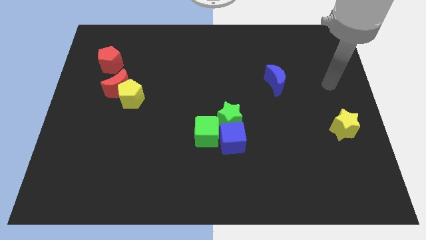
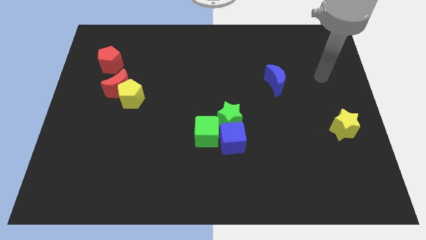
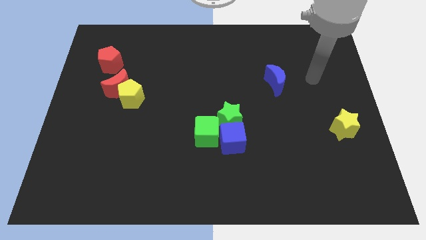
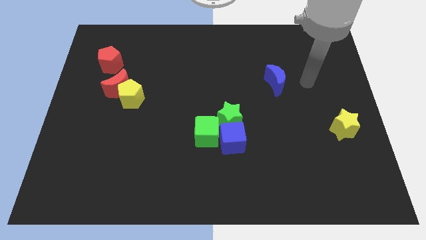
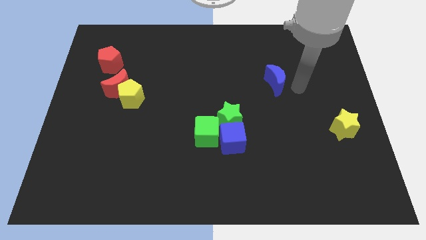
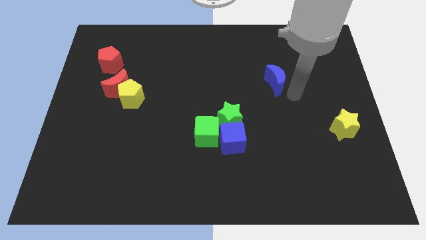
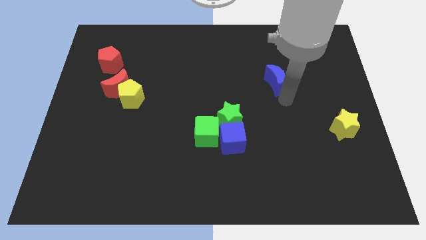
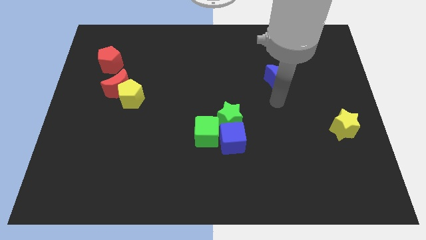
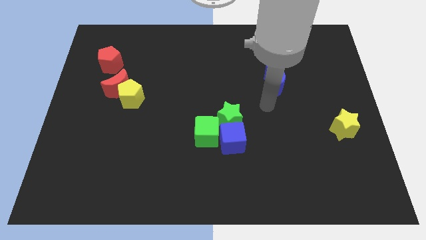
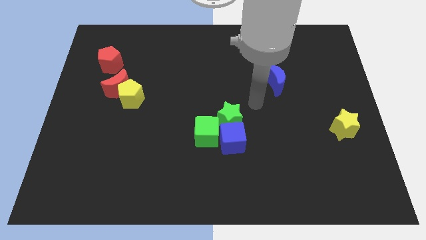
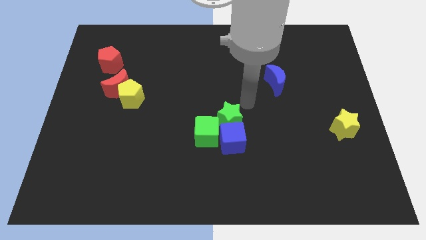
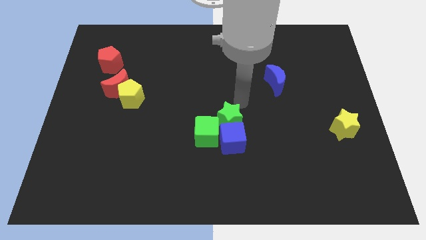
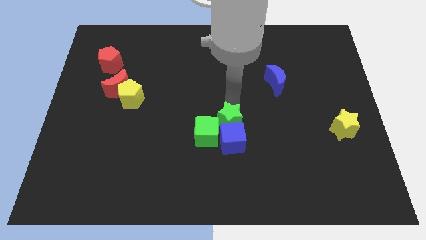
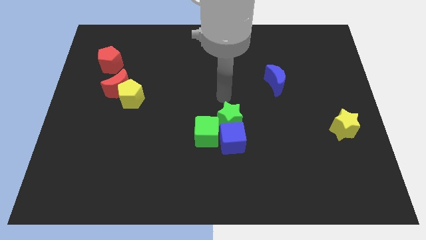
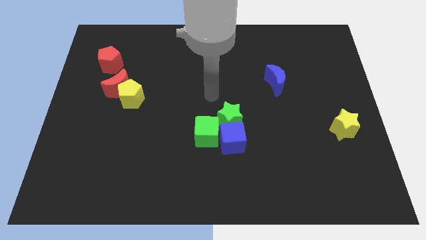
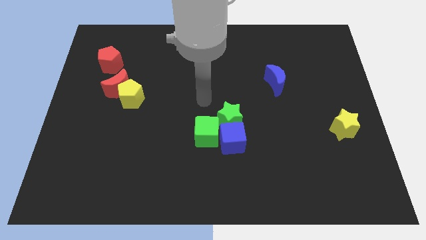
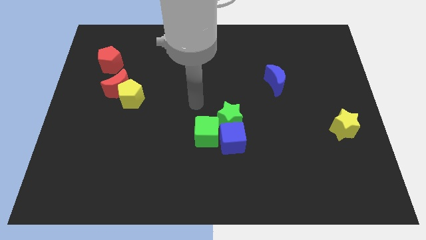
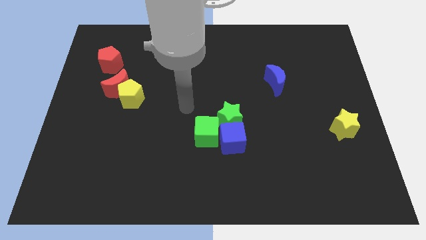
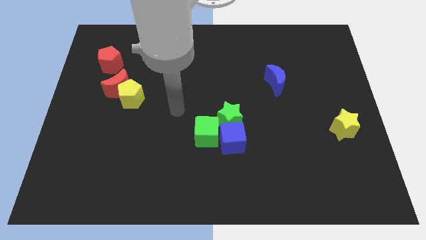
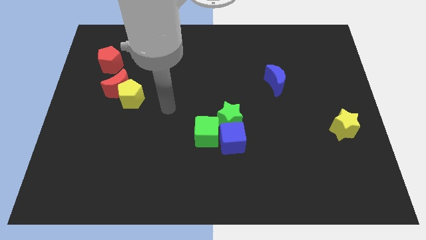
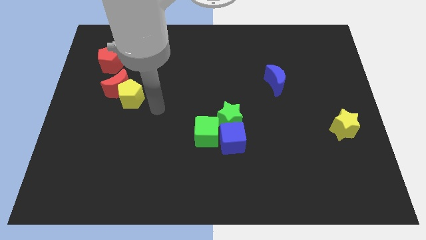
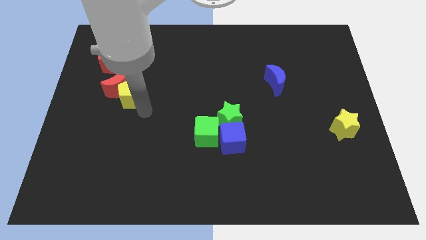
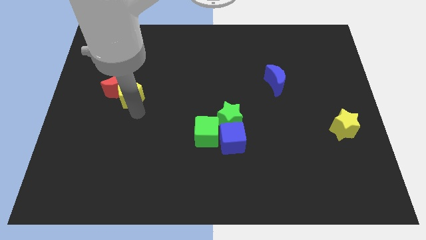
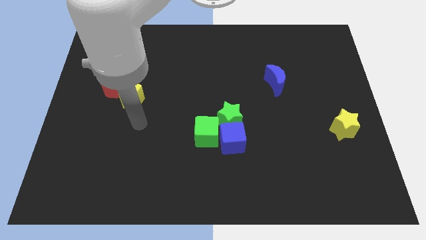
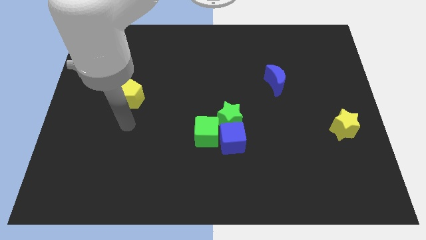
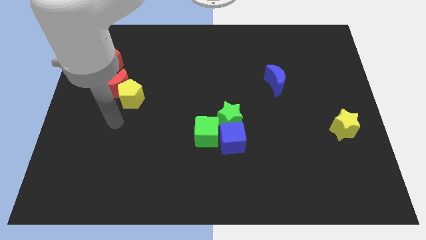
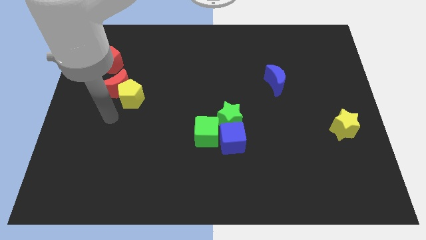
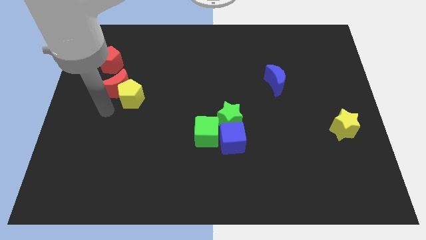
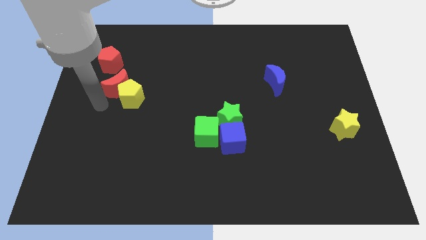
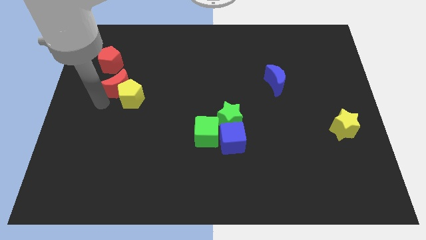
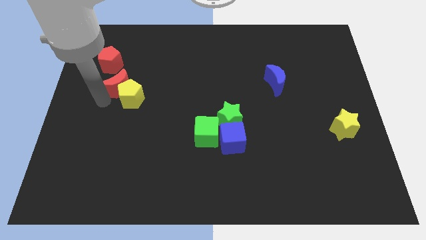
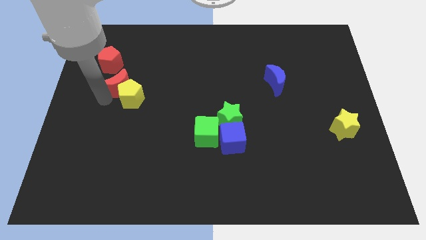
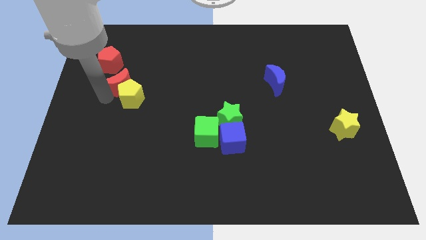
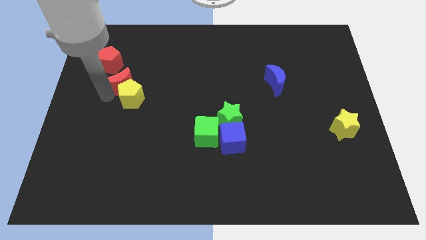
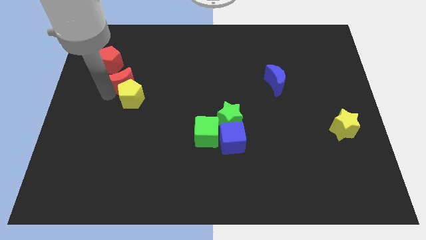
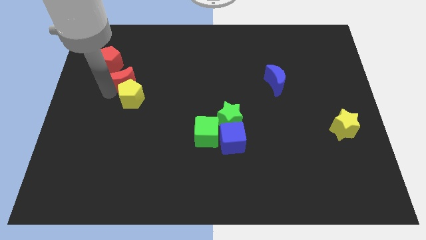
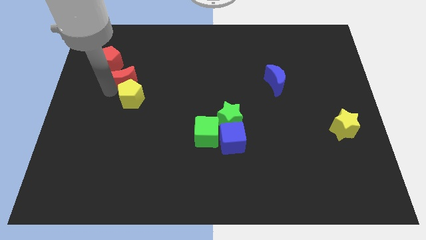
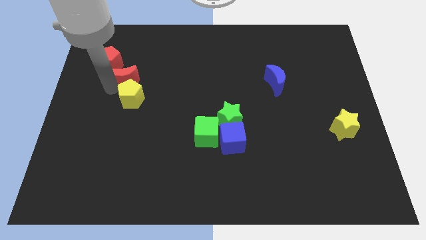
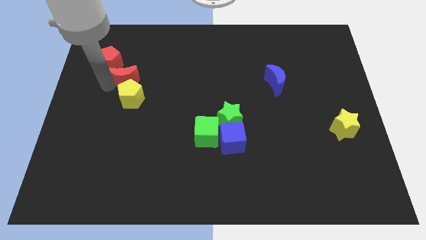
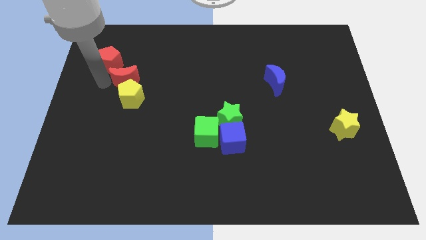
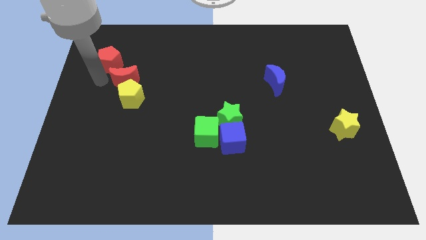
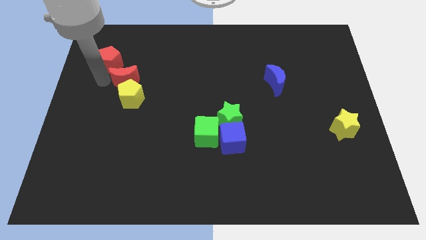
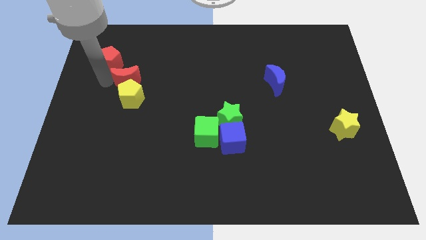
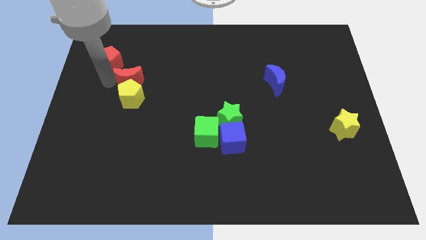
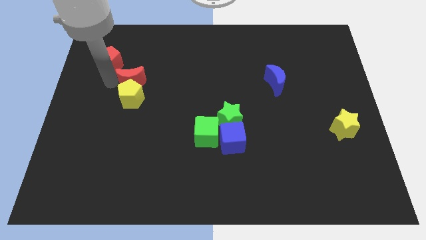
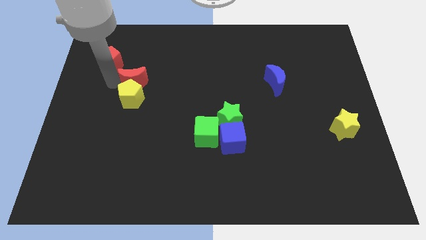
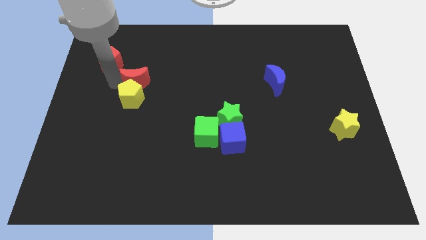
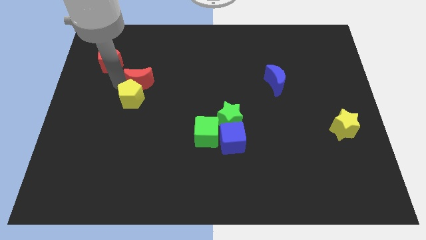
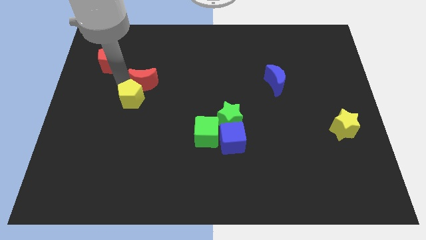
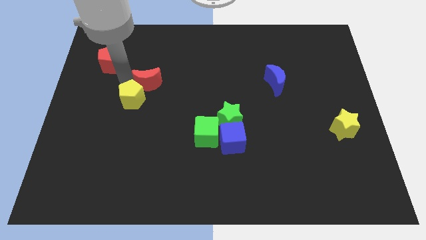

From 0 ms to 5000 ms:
push the red moon right somewhat

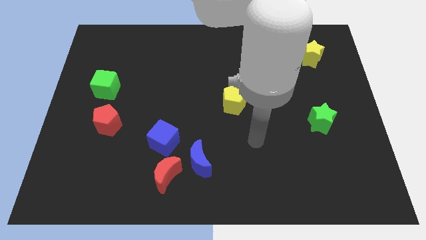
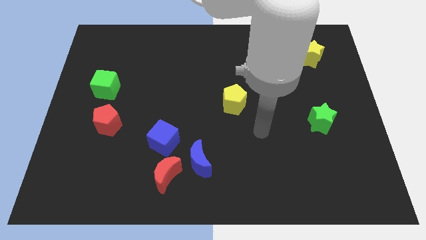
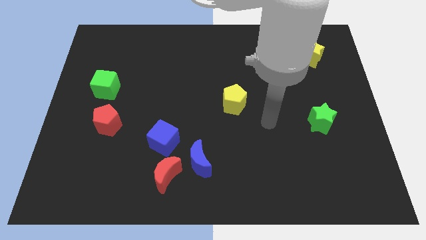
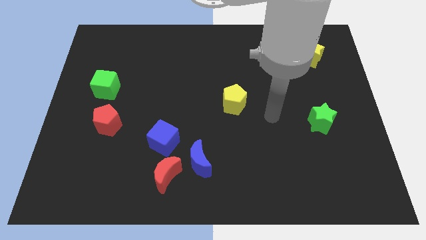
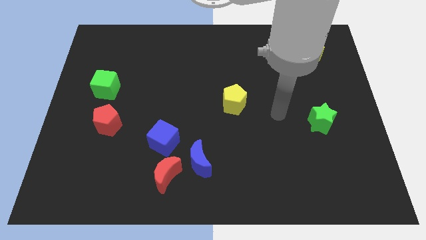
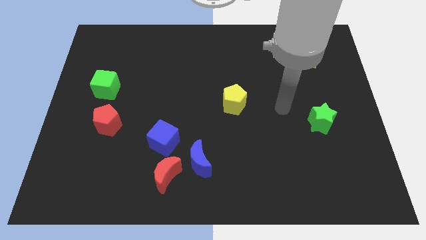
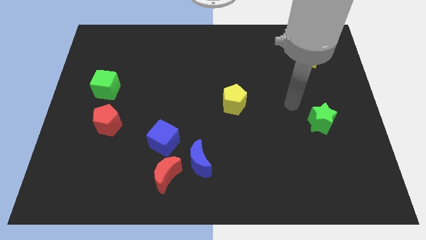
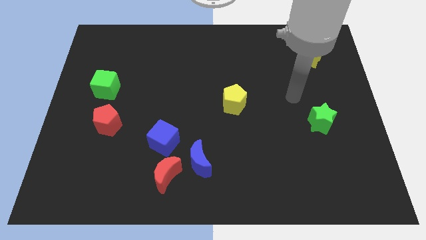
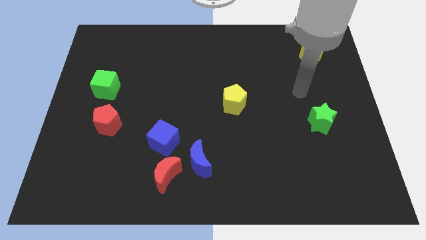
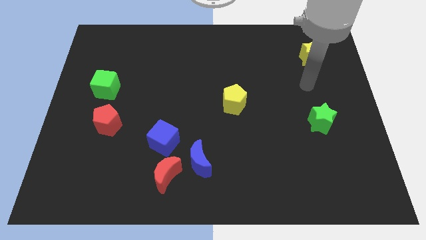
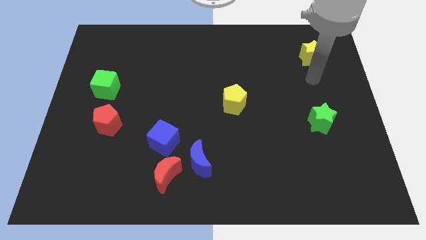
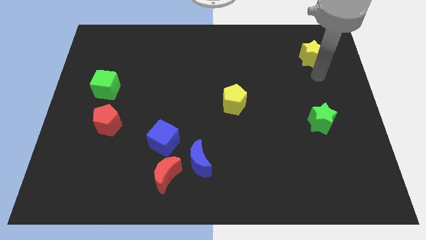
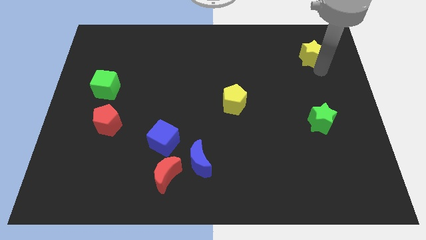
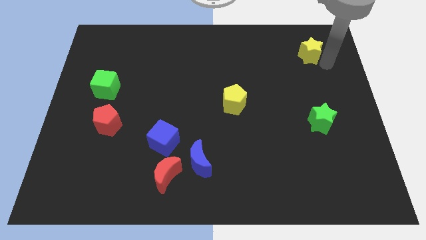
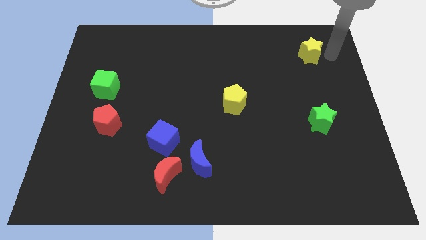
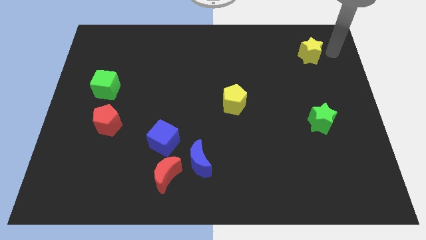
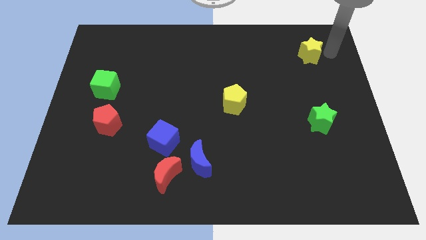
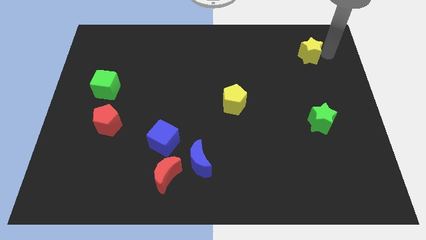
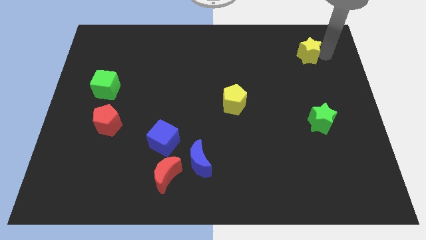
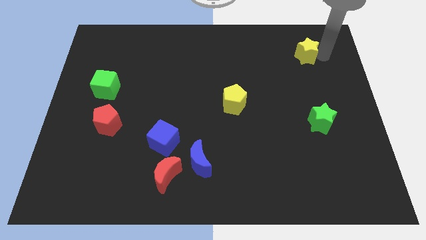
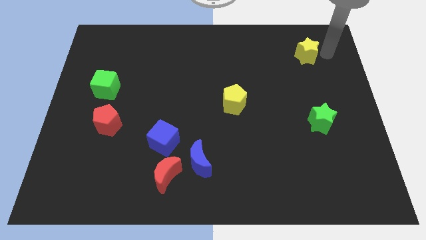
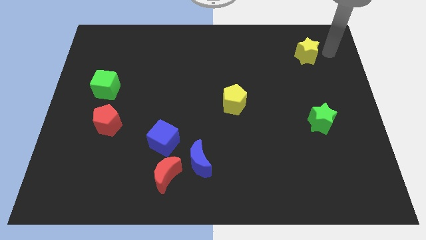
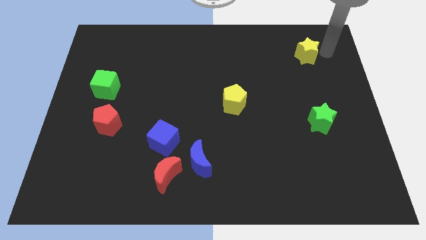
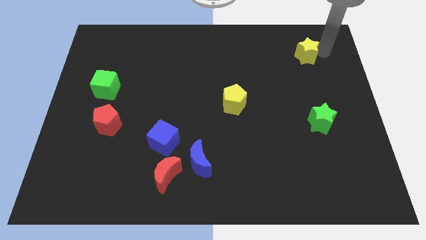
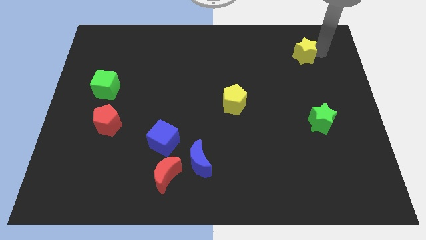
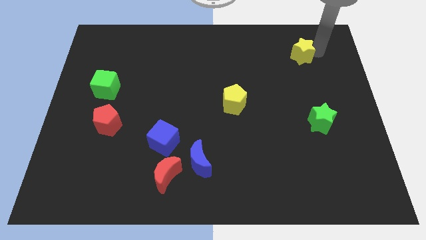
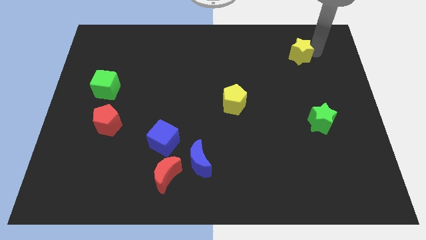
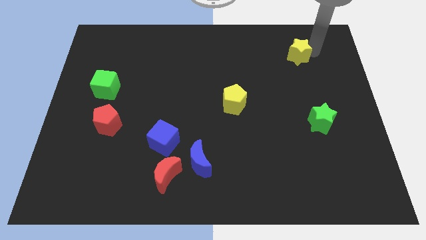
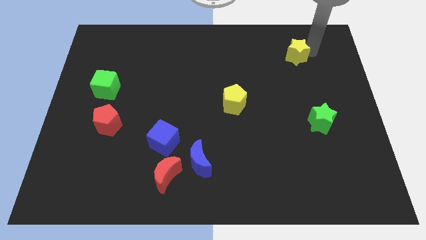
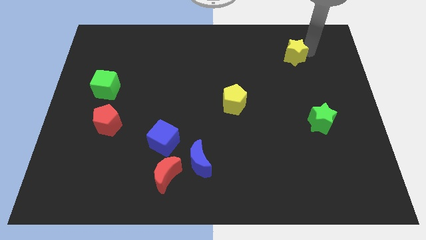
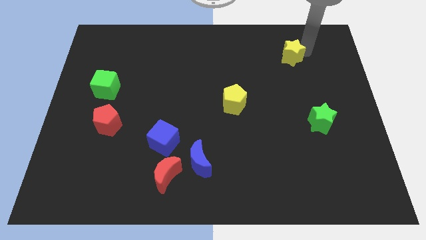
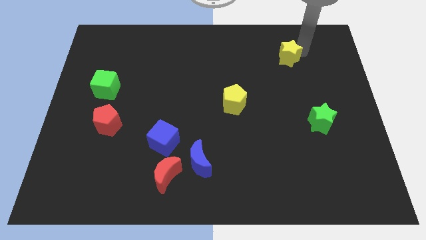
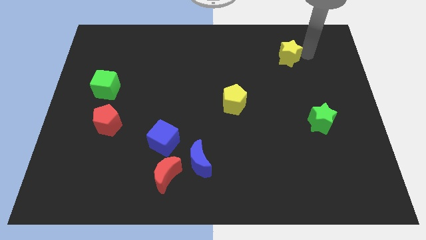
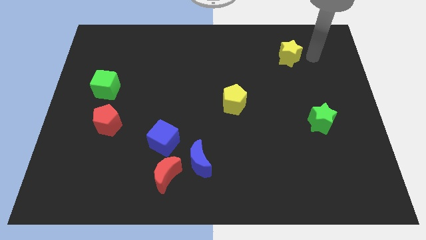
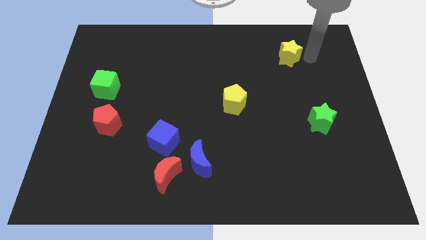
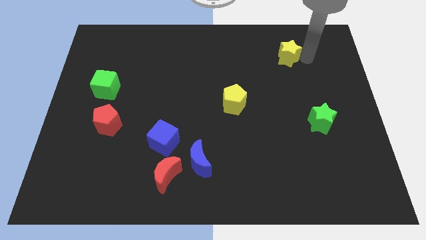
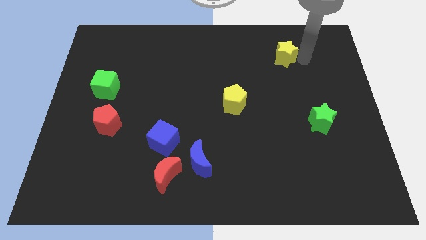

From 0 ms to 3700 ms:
move the yellow star to the left a bit
